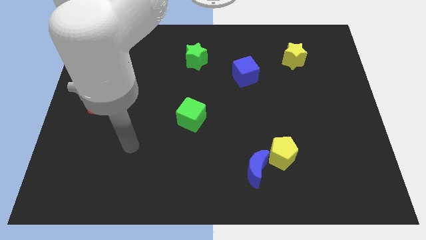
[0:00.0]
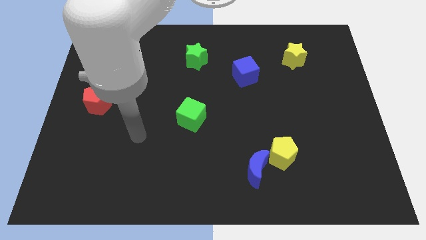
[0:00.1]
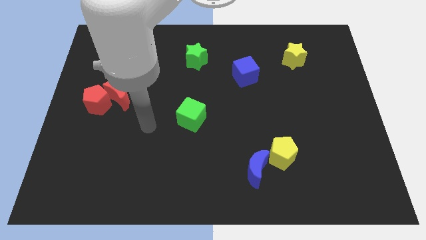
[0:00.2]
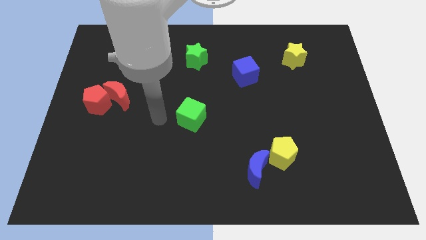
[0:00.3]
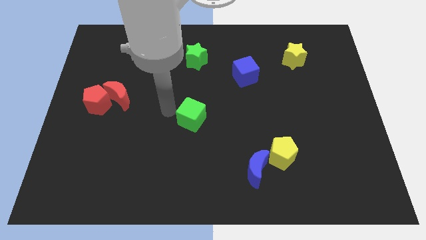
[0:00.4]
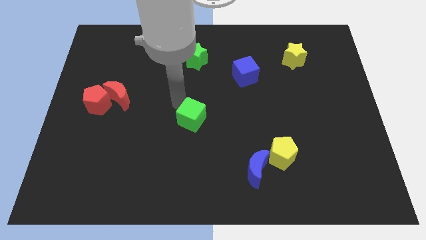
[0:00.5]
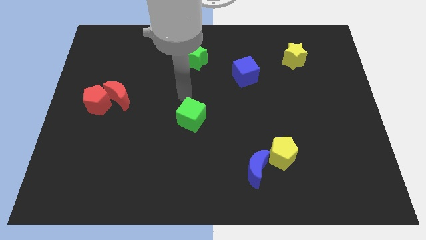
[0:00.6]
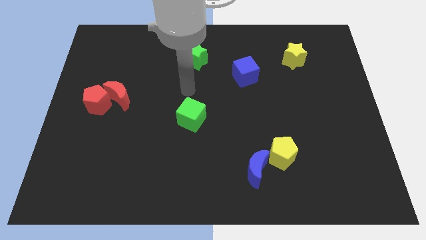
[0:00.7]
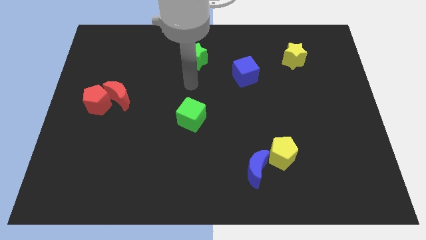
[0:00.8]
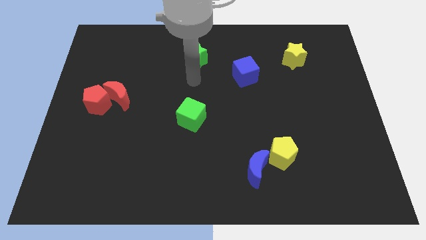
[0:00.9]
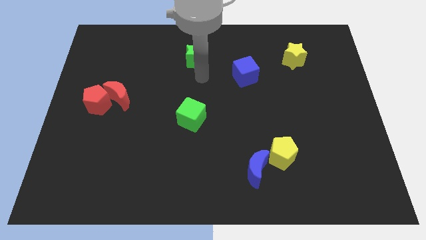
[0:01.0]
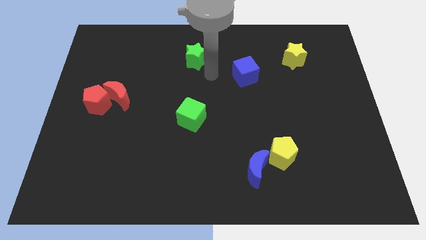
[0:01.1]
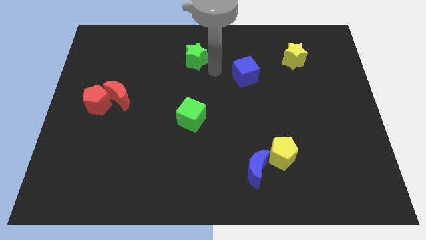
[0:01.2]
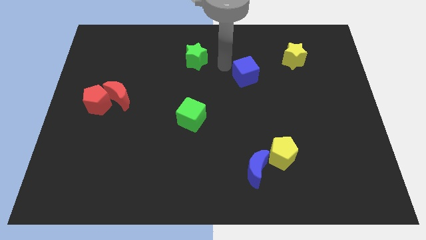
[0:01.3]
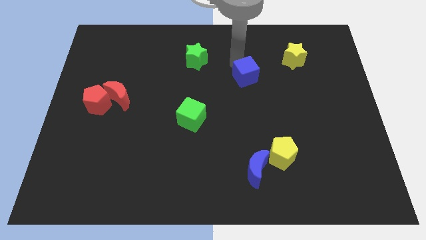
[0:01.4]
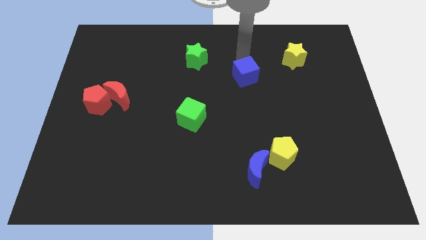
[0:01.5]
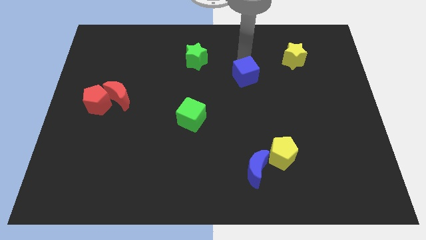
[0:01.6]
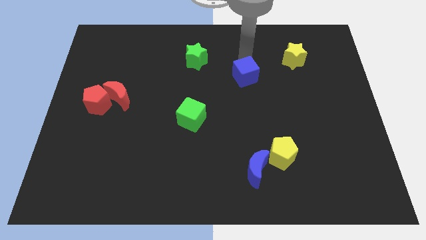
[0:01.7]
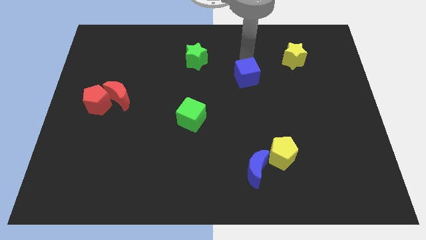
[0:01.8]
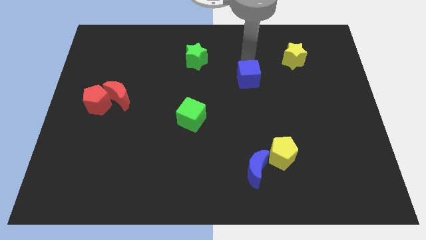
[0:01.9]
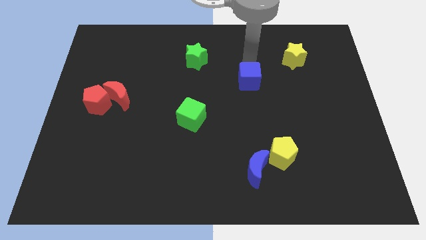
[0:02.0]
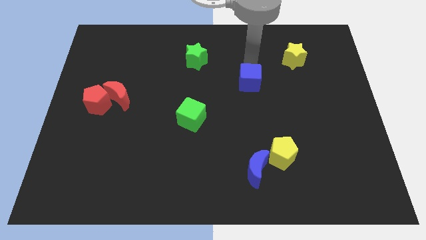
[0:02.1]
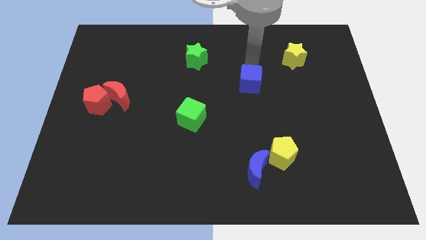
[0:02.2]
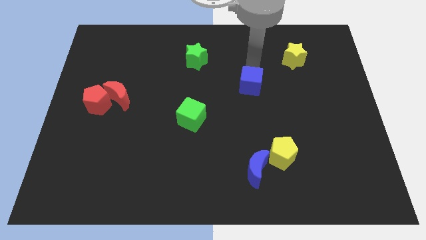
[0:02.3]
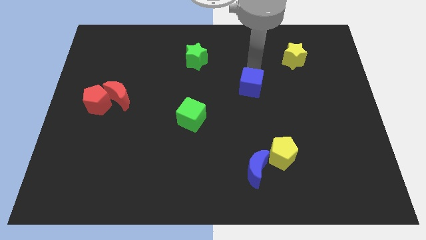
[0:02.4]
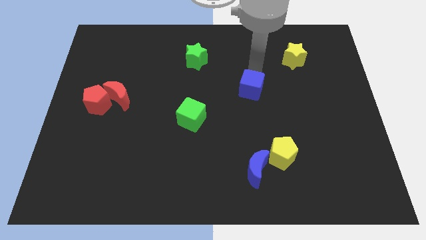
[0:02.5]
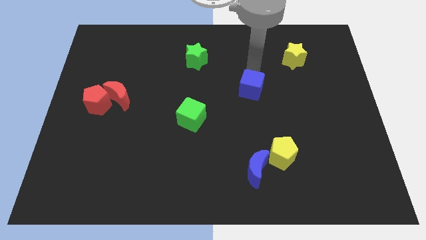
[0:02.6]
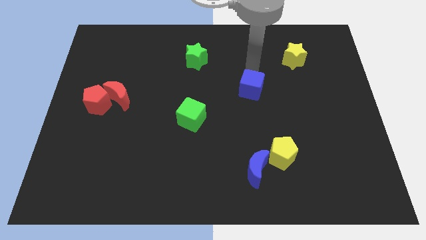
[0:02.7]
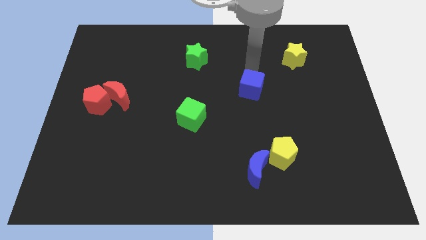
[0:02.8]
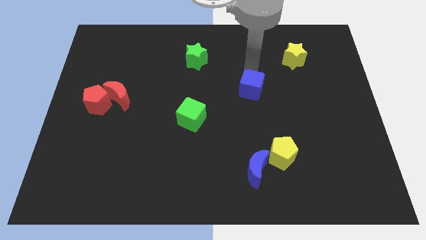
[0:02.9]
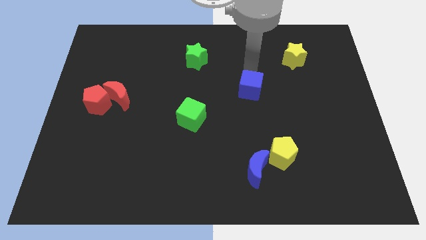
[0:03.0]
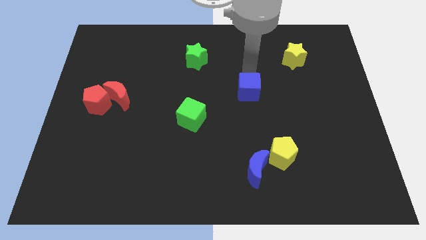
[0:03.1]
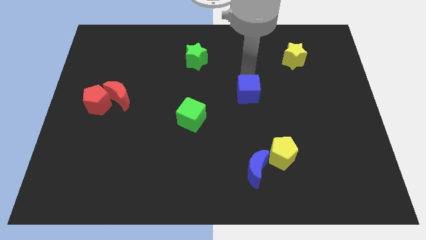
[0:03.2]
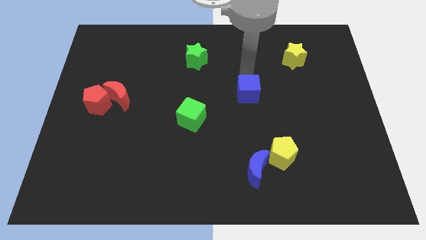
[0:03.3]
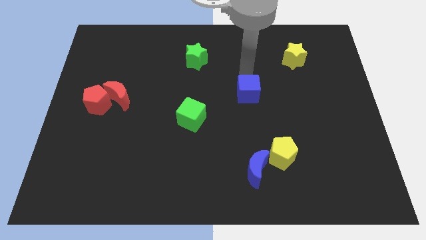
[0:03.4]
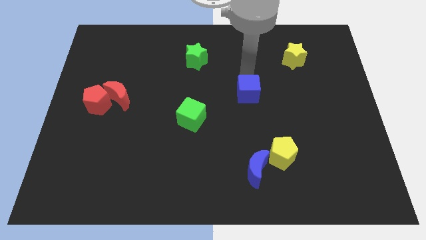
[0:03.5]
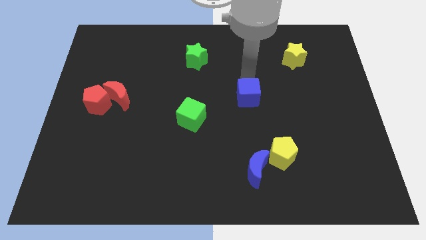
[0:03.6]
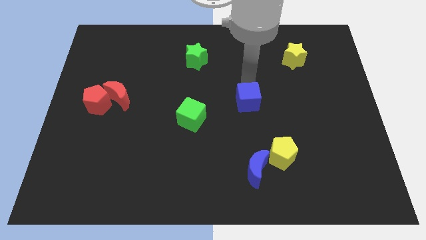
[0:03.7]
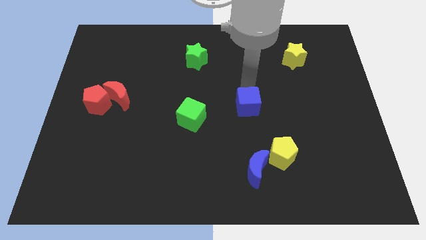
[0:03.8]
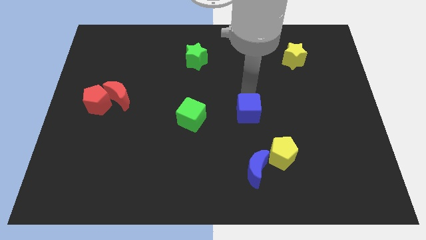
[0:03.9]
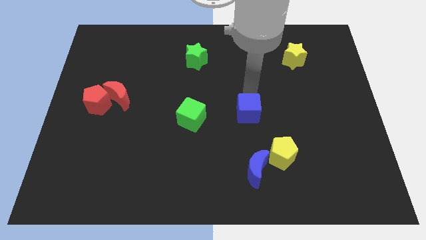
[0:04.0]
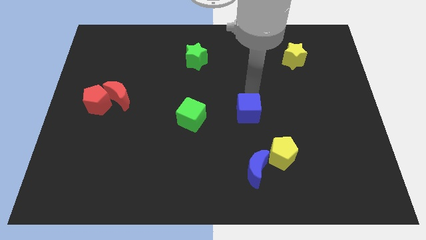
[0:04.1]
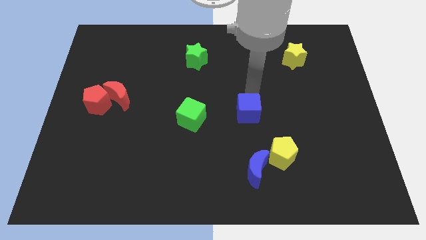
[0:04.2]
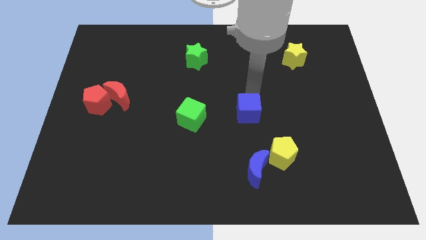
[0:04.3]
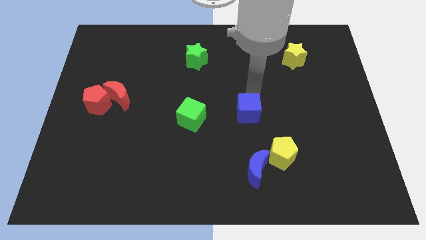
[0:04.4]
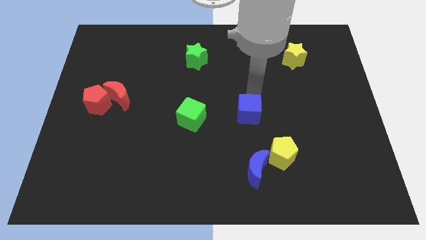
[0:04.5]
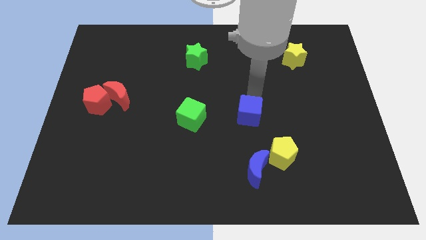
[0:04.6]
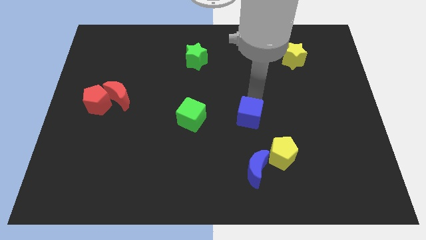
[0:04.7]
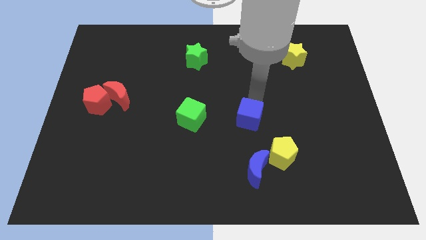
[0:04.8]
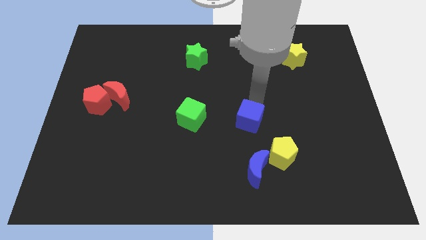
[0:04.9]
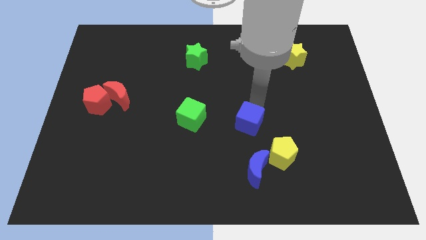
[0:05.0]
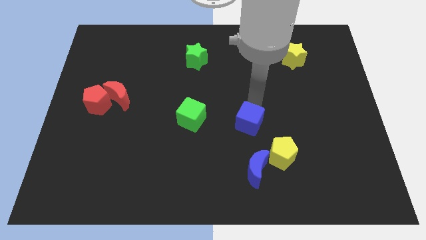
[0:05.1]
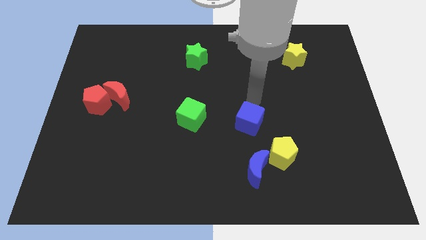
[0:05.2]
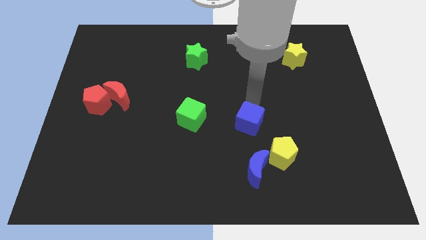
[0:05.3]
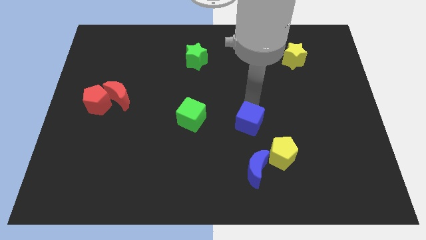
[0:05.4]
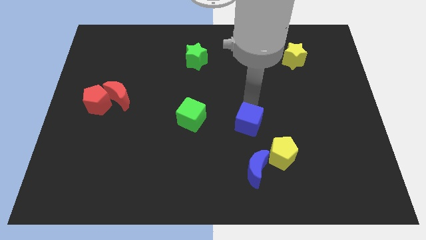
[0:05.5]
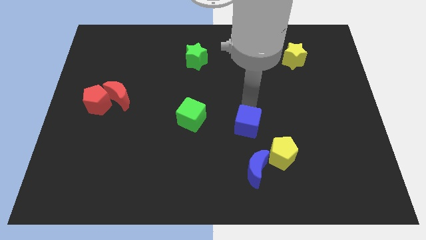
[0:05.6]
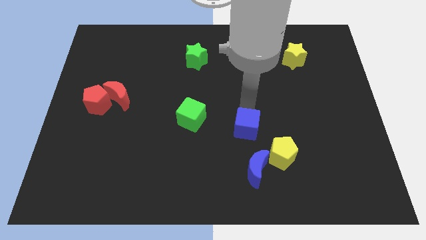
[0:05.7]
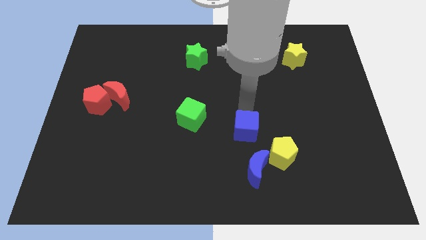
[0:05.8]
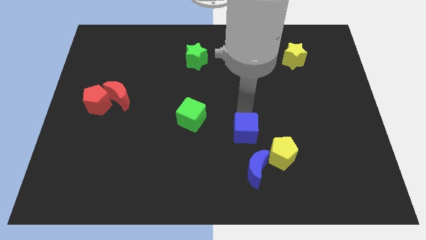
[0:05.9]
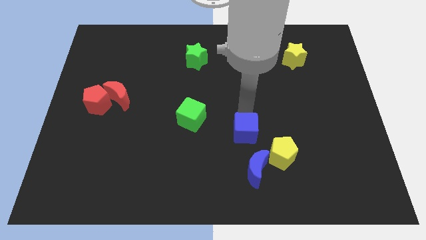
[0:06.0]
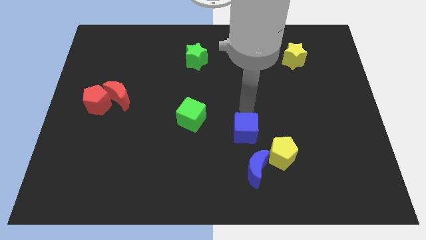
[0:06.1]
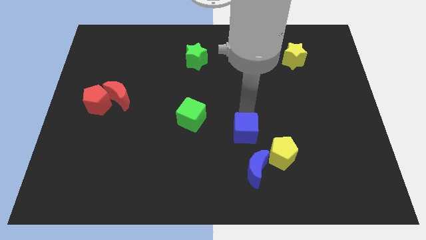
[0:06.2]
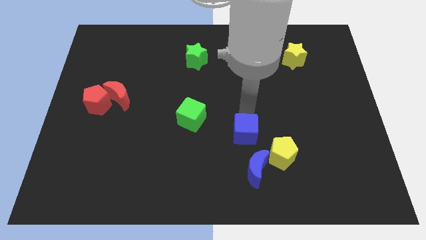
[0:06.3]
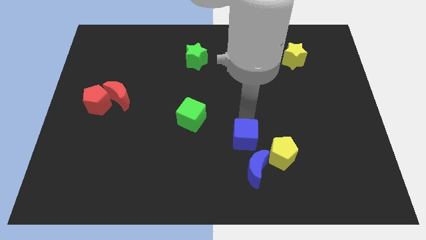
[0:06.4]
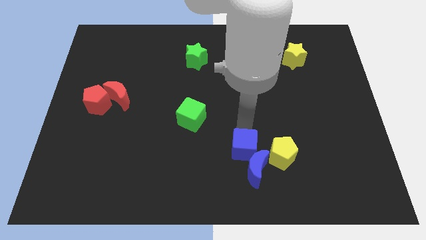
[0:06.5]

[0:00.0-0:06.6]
move the blue cube next to the blue moon
